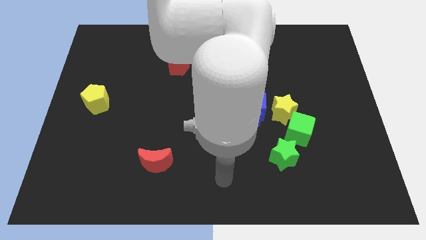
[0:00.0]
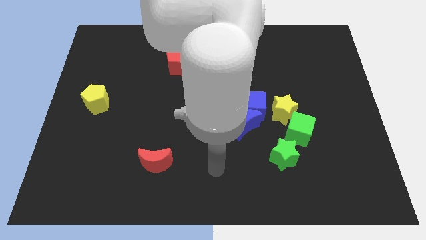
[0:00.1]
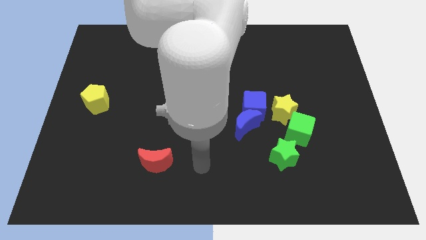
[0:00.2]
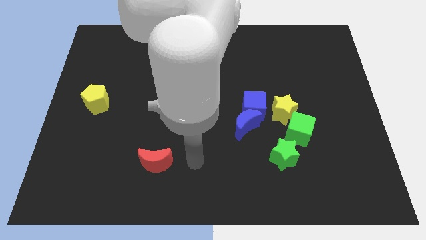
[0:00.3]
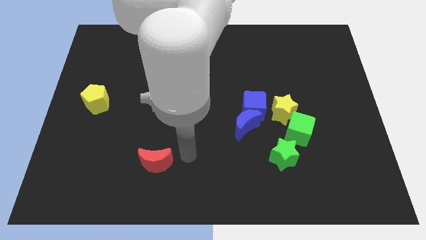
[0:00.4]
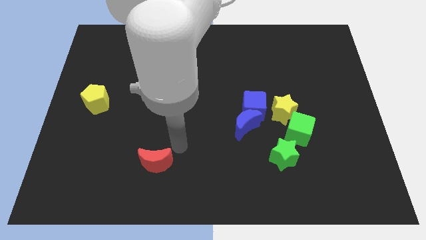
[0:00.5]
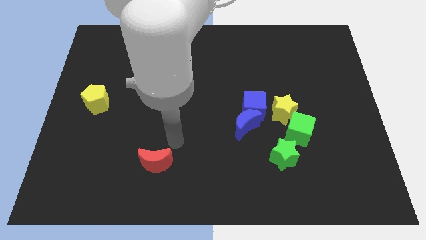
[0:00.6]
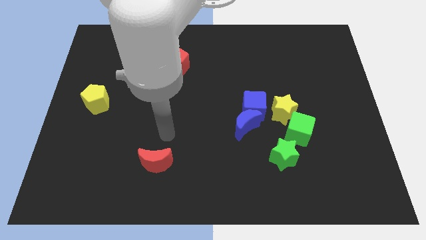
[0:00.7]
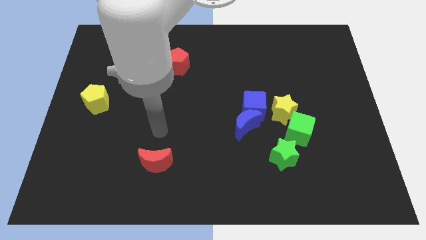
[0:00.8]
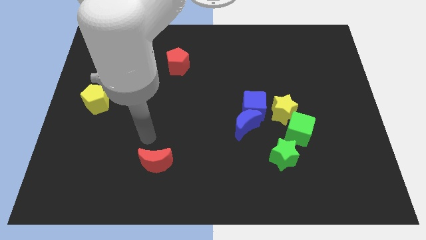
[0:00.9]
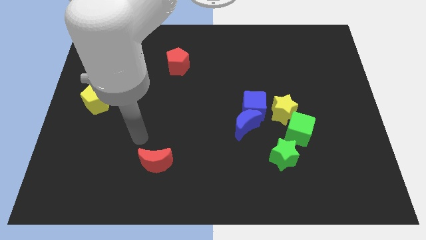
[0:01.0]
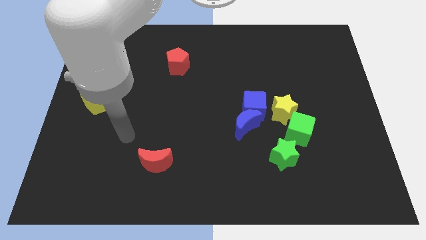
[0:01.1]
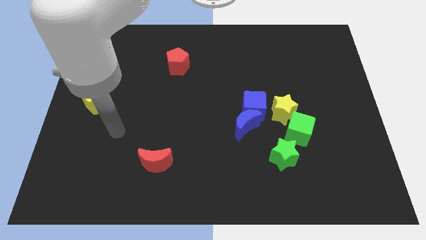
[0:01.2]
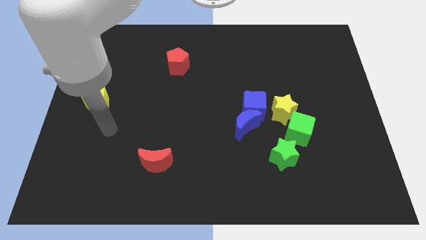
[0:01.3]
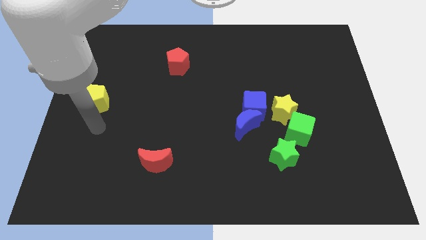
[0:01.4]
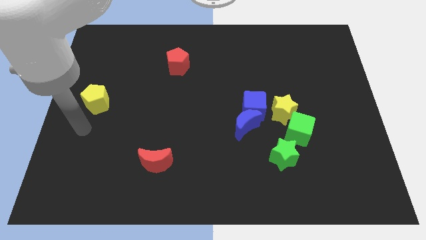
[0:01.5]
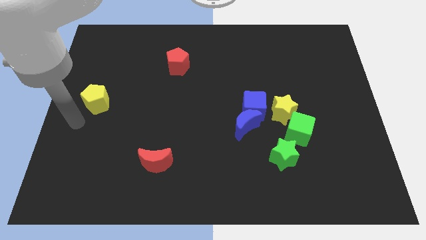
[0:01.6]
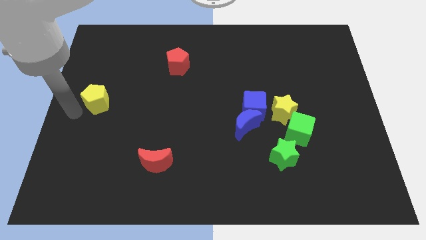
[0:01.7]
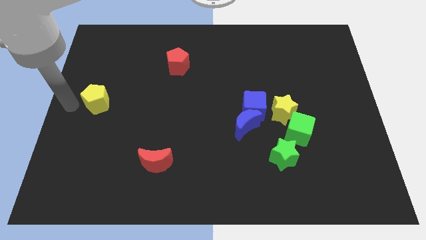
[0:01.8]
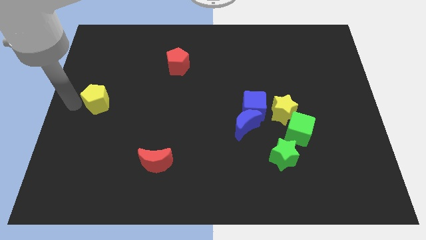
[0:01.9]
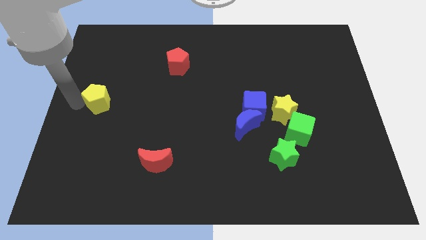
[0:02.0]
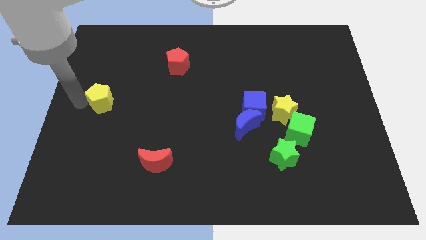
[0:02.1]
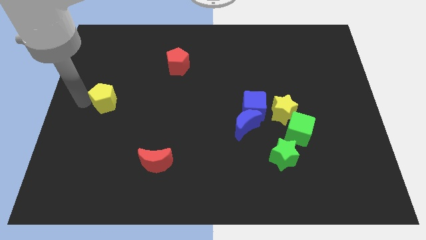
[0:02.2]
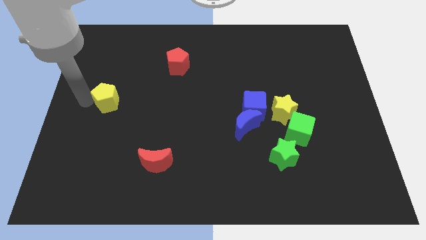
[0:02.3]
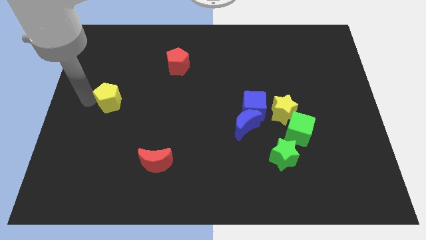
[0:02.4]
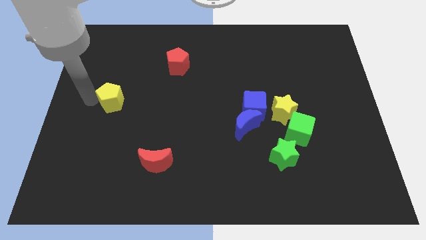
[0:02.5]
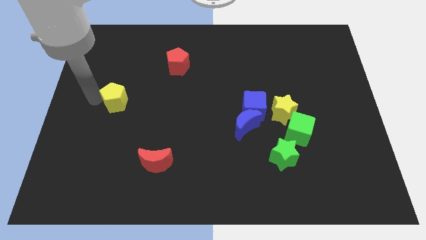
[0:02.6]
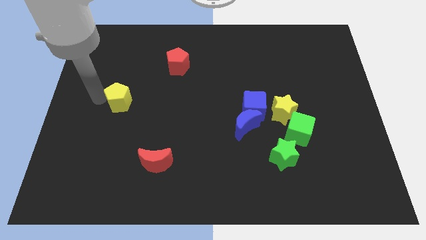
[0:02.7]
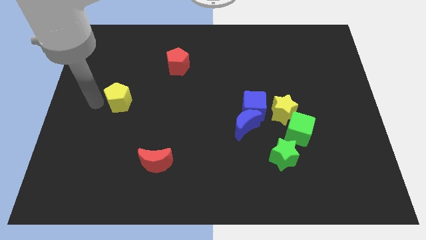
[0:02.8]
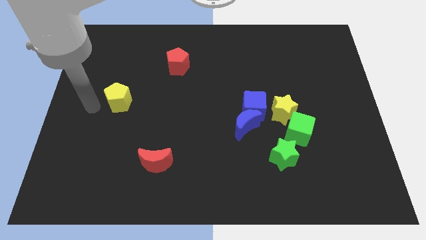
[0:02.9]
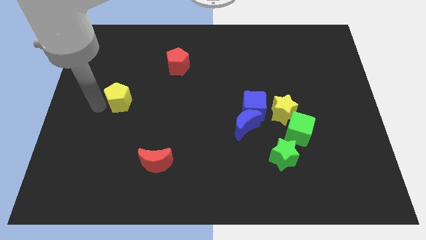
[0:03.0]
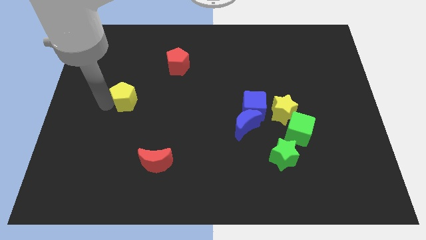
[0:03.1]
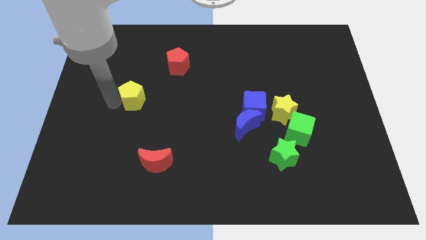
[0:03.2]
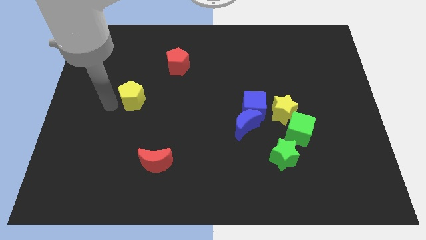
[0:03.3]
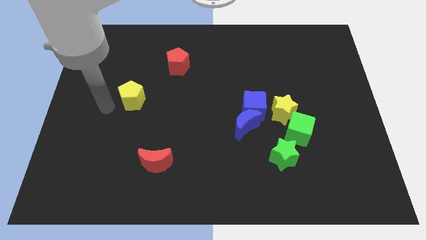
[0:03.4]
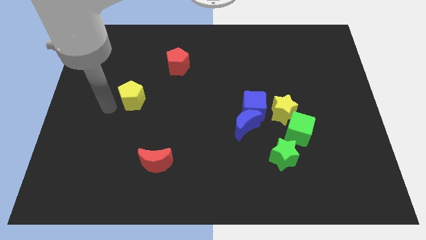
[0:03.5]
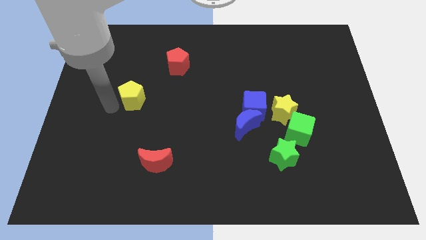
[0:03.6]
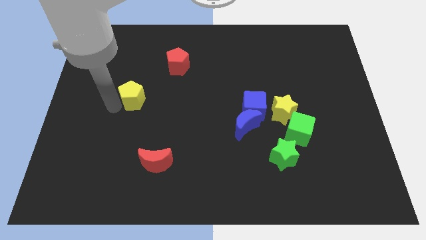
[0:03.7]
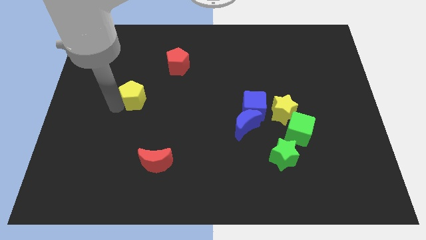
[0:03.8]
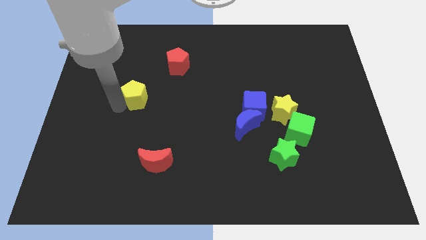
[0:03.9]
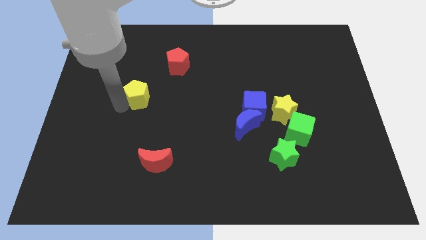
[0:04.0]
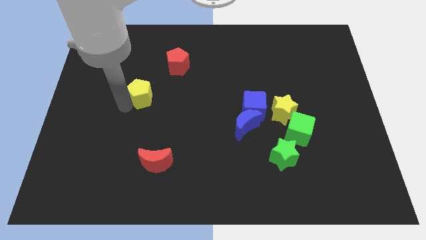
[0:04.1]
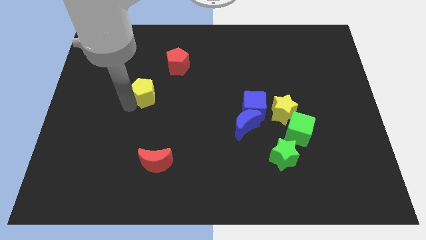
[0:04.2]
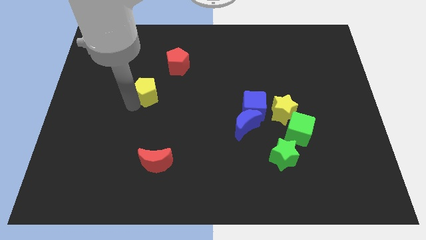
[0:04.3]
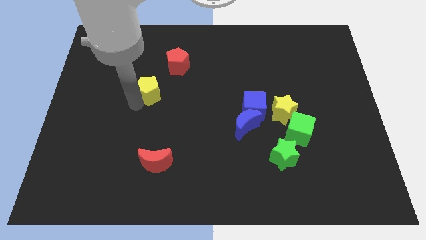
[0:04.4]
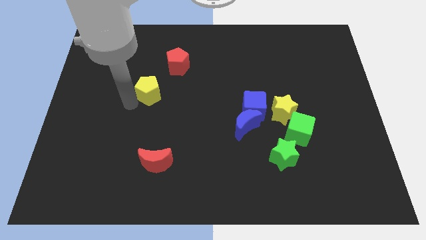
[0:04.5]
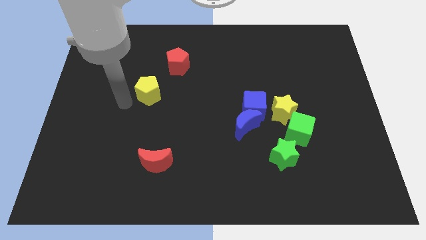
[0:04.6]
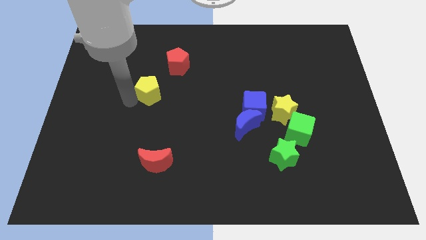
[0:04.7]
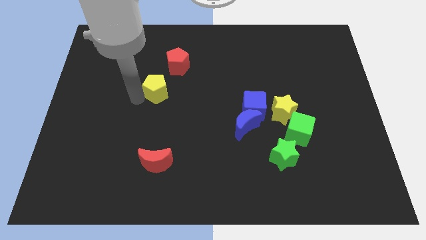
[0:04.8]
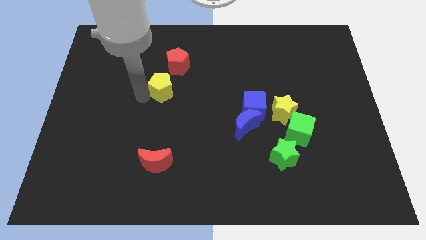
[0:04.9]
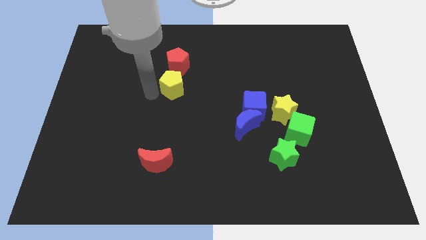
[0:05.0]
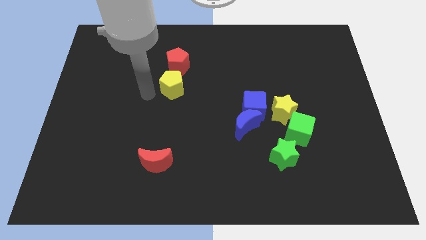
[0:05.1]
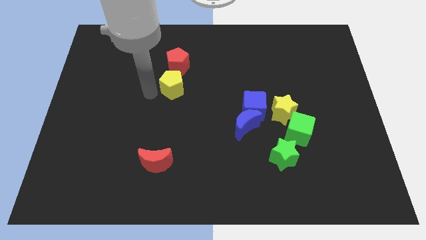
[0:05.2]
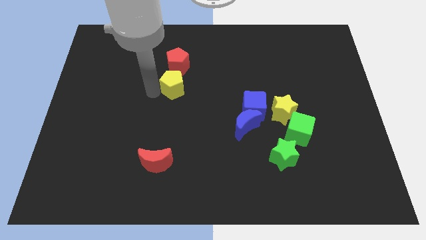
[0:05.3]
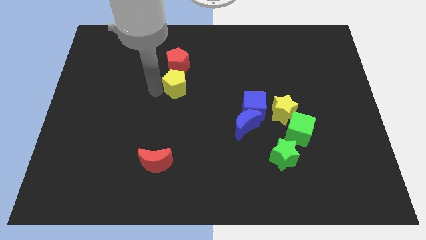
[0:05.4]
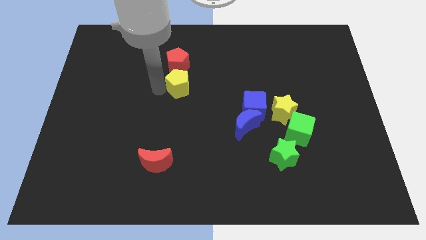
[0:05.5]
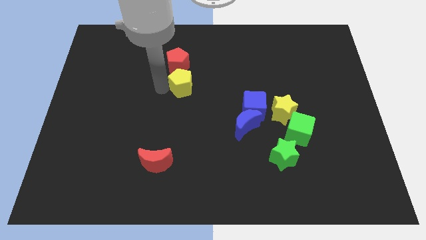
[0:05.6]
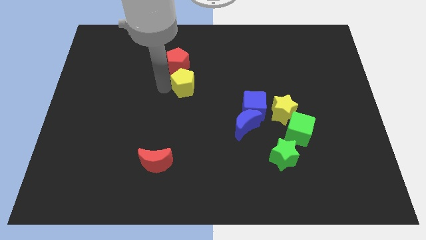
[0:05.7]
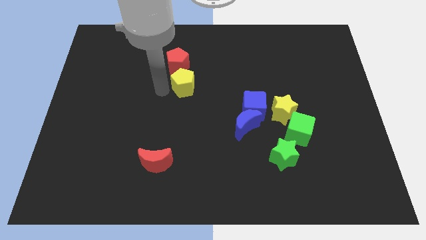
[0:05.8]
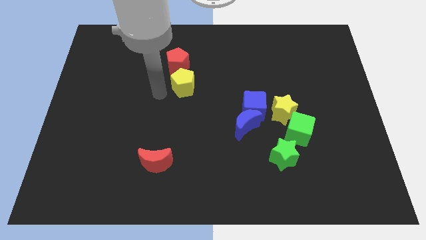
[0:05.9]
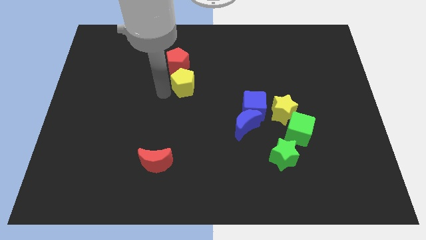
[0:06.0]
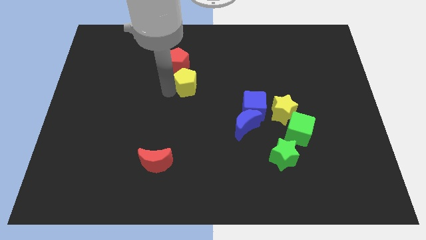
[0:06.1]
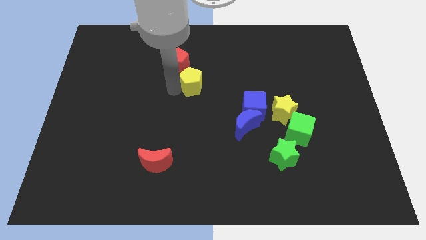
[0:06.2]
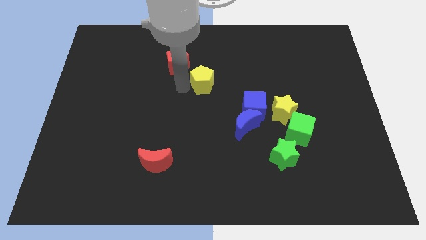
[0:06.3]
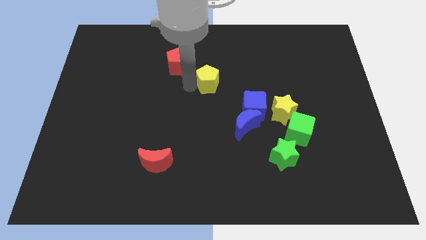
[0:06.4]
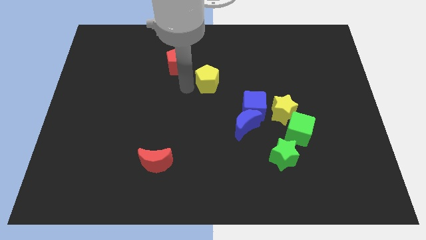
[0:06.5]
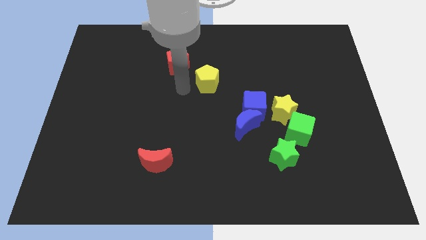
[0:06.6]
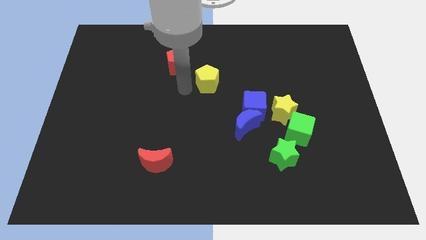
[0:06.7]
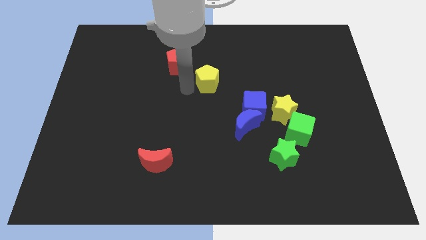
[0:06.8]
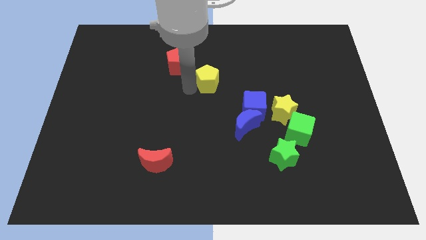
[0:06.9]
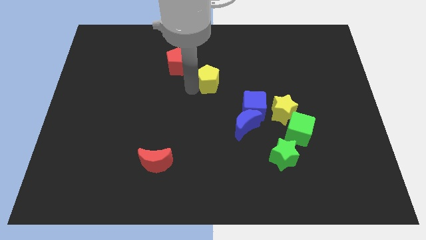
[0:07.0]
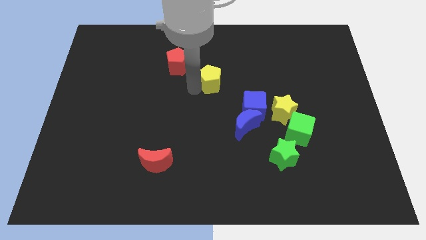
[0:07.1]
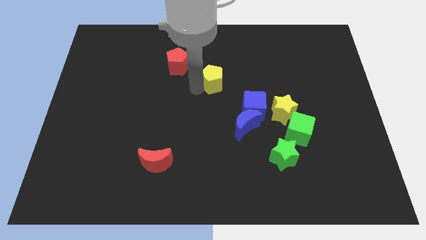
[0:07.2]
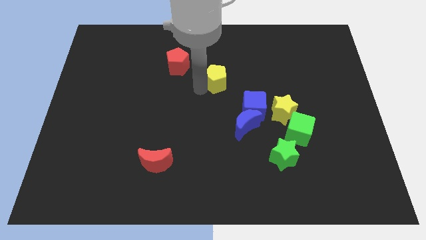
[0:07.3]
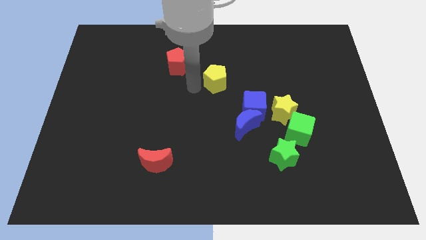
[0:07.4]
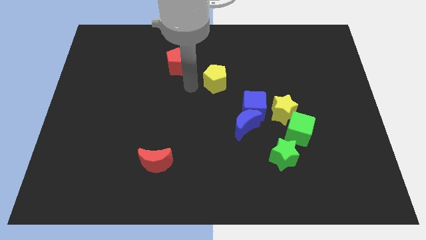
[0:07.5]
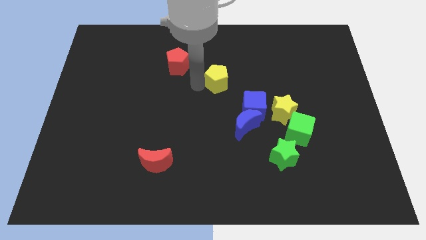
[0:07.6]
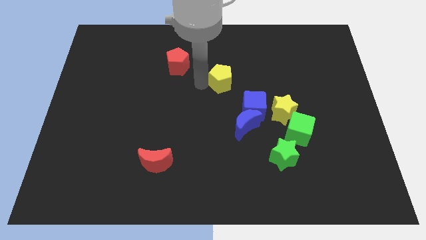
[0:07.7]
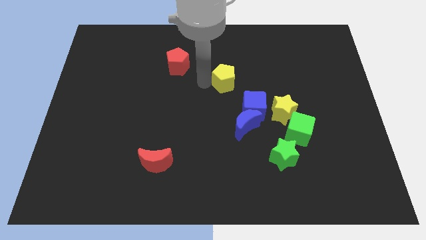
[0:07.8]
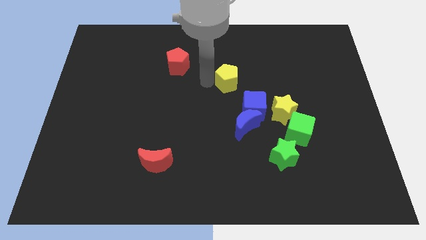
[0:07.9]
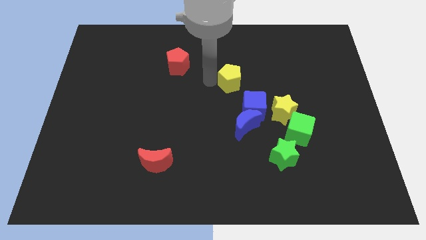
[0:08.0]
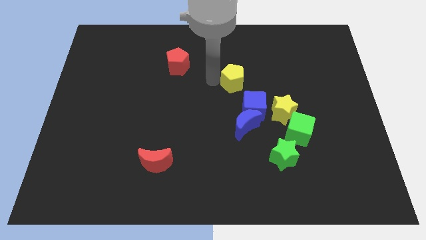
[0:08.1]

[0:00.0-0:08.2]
push the yellow pentagon to the top of the blue cube

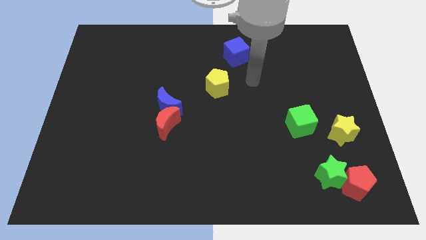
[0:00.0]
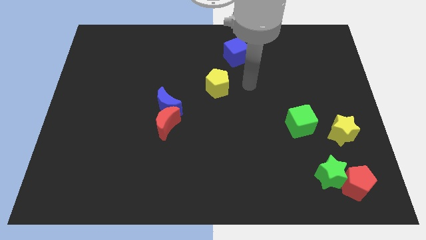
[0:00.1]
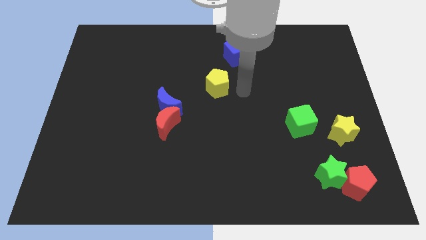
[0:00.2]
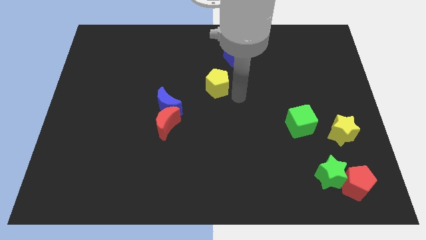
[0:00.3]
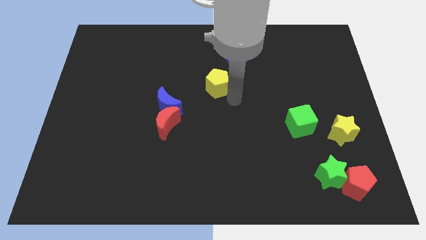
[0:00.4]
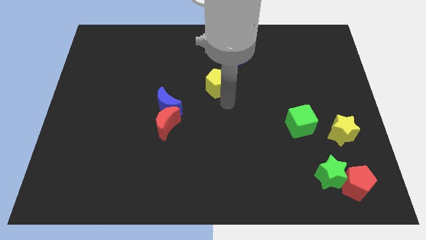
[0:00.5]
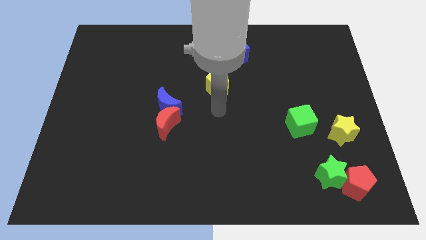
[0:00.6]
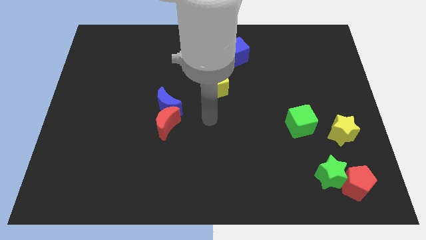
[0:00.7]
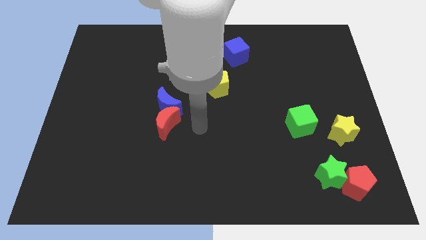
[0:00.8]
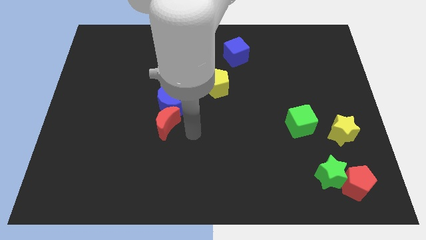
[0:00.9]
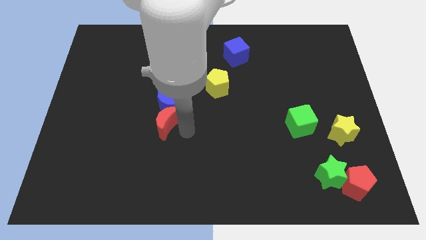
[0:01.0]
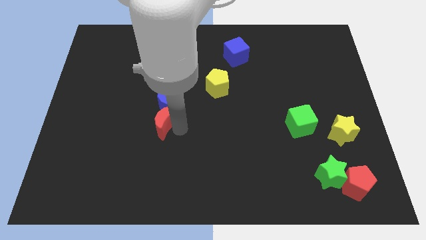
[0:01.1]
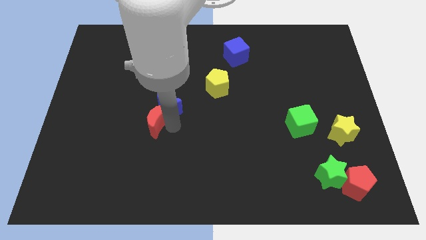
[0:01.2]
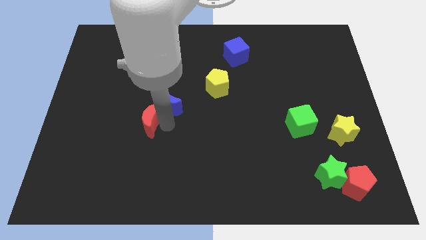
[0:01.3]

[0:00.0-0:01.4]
put the red moon left of the blue moon
